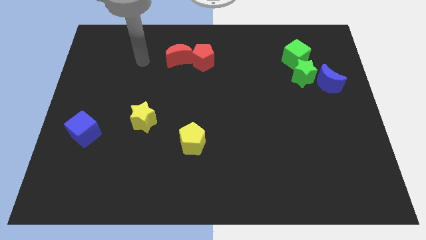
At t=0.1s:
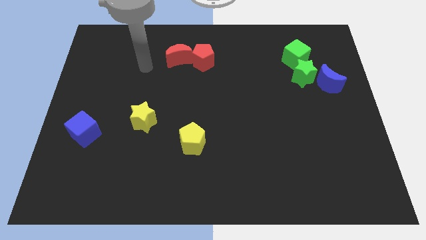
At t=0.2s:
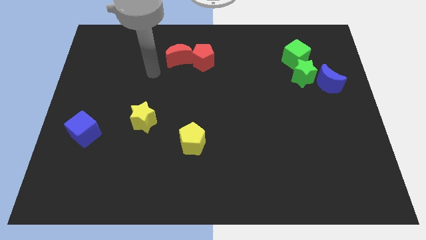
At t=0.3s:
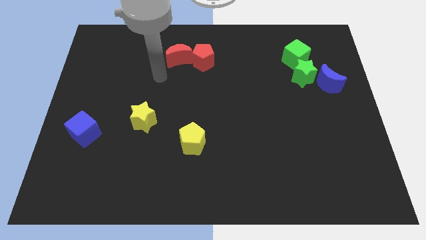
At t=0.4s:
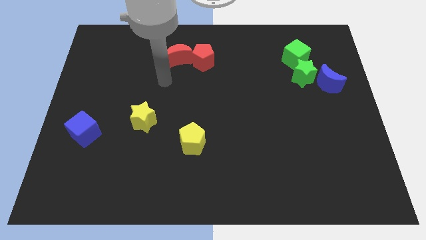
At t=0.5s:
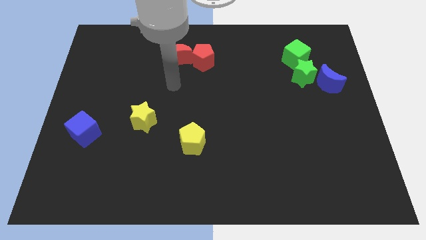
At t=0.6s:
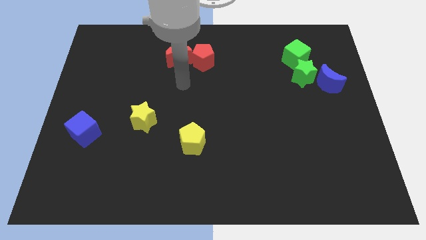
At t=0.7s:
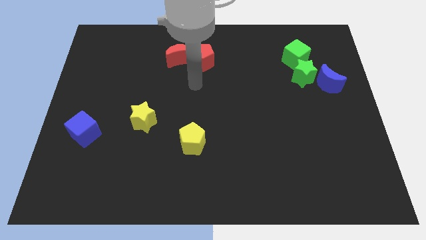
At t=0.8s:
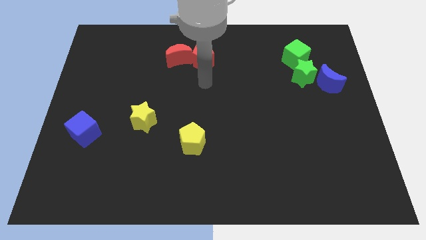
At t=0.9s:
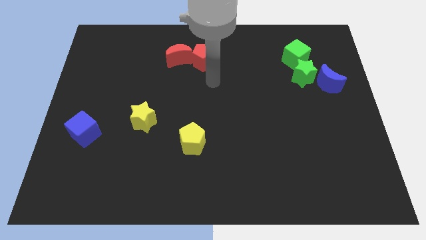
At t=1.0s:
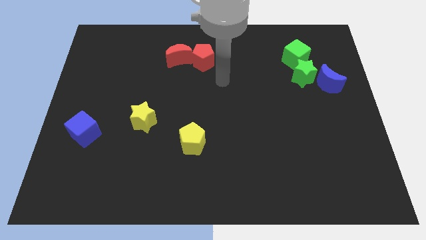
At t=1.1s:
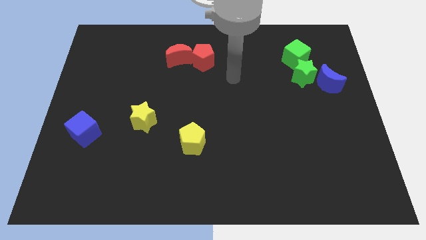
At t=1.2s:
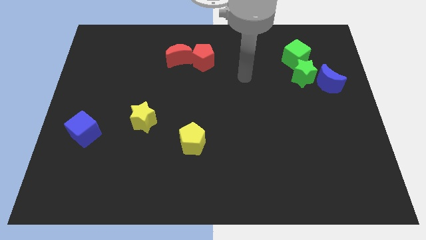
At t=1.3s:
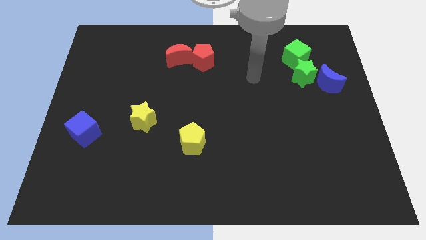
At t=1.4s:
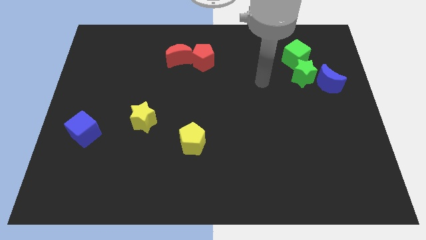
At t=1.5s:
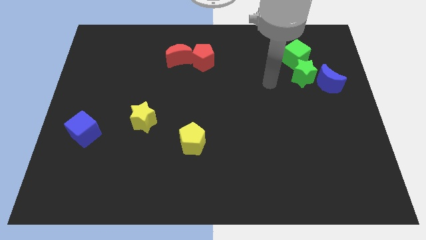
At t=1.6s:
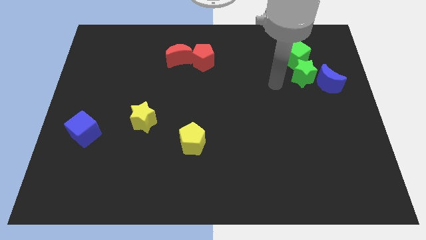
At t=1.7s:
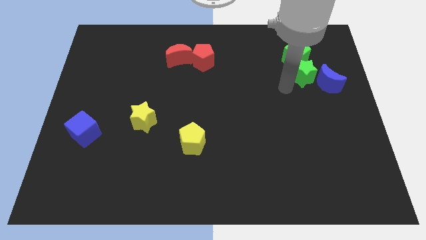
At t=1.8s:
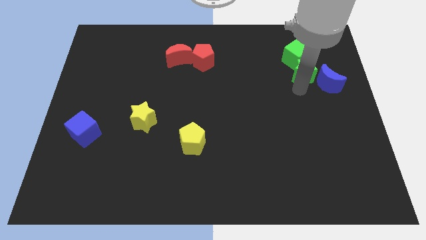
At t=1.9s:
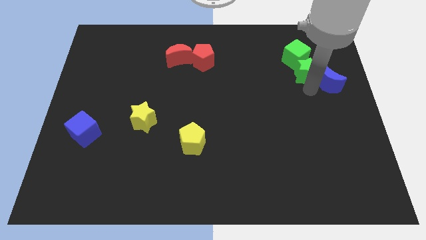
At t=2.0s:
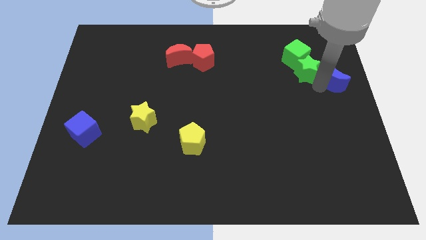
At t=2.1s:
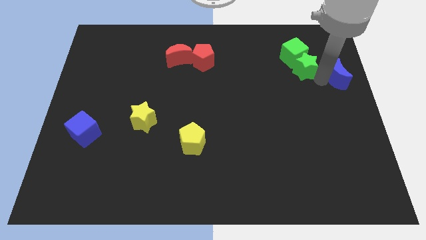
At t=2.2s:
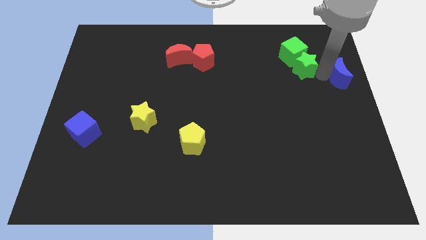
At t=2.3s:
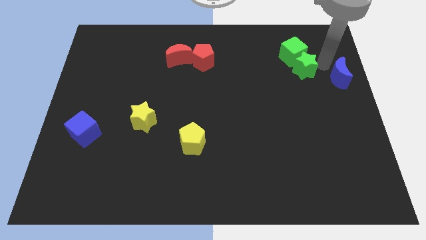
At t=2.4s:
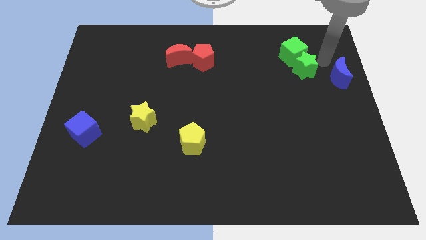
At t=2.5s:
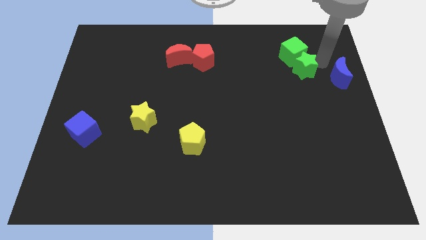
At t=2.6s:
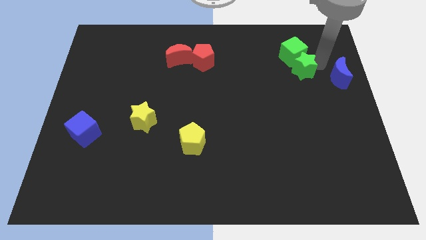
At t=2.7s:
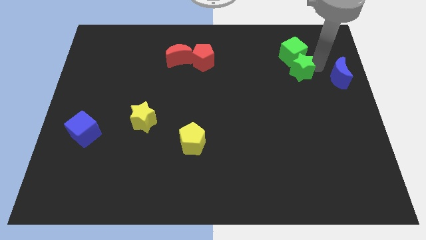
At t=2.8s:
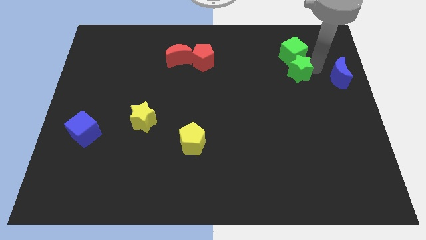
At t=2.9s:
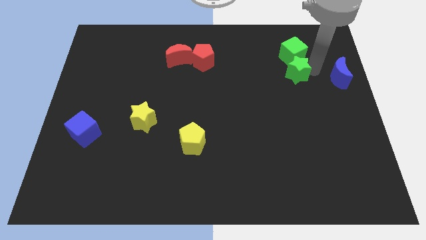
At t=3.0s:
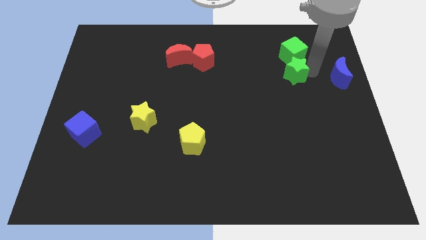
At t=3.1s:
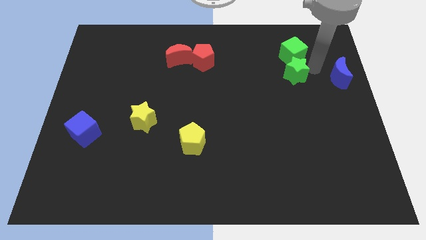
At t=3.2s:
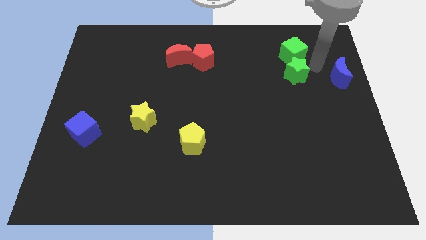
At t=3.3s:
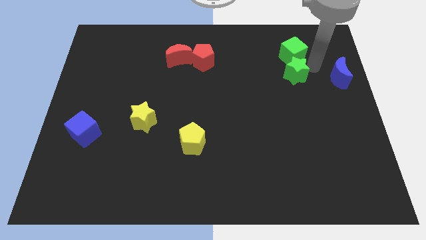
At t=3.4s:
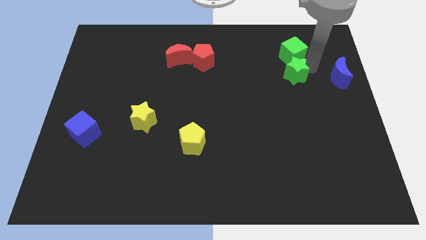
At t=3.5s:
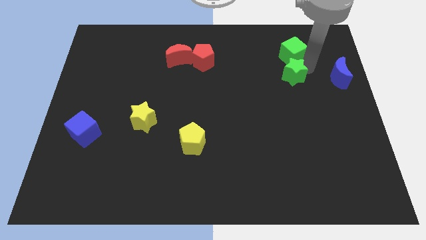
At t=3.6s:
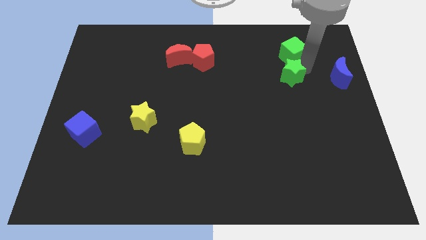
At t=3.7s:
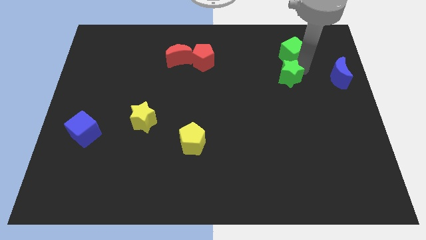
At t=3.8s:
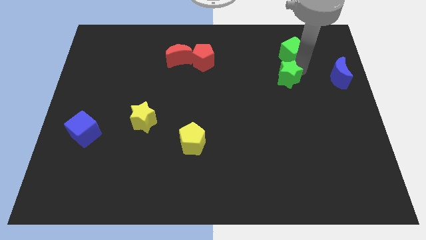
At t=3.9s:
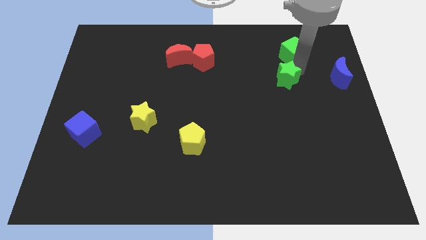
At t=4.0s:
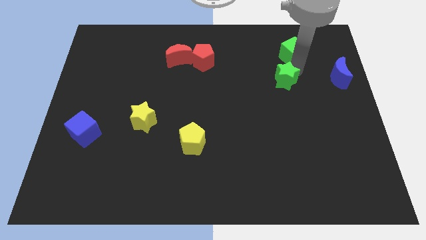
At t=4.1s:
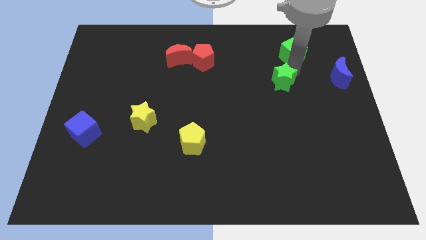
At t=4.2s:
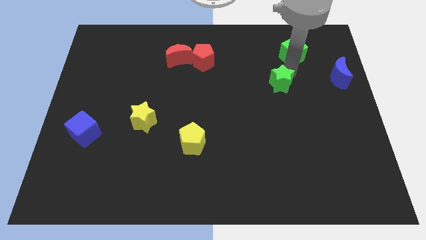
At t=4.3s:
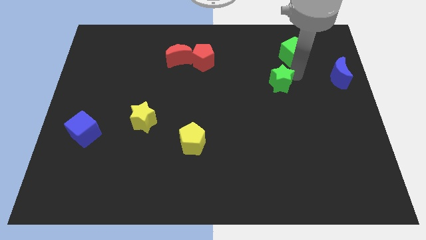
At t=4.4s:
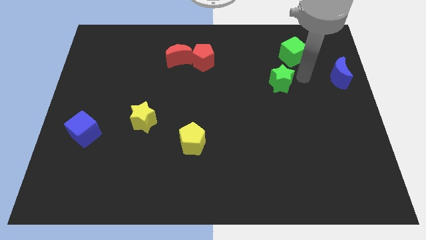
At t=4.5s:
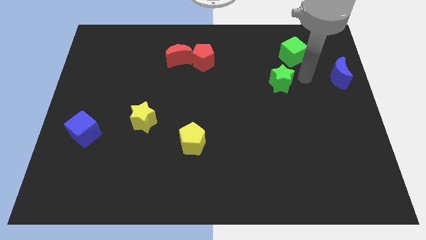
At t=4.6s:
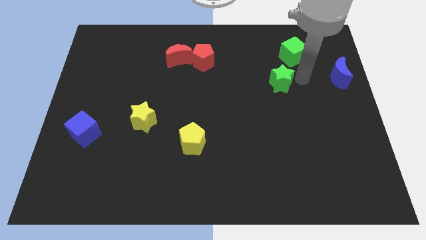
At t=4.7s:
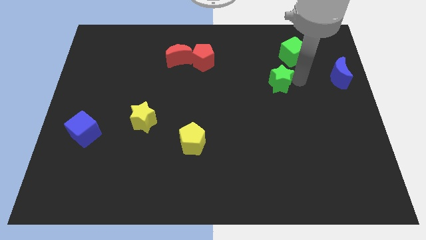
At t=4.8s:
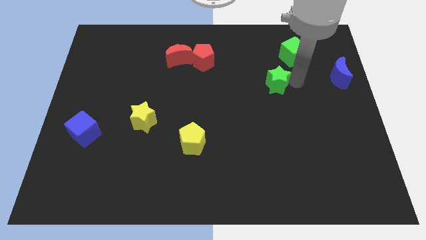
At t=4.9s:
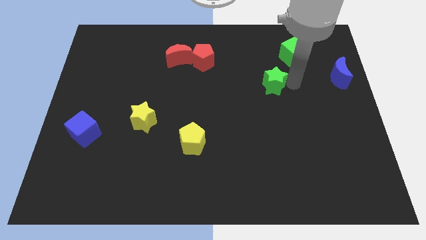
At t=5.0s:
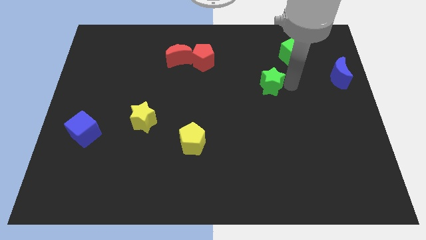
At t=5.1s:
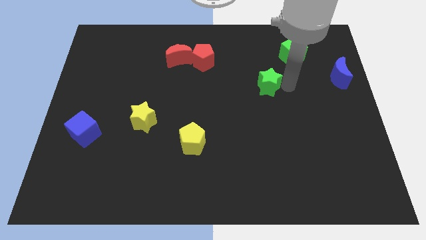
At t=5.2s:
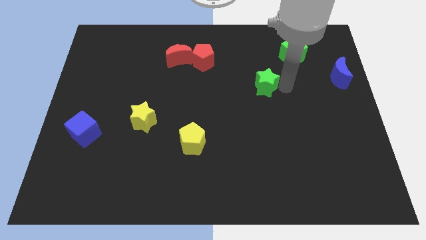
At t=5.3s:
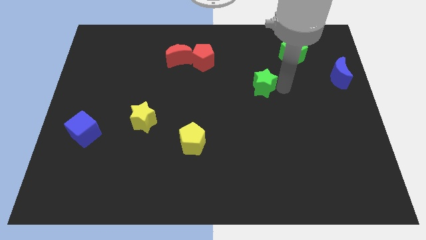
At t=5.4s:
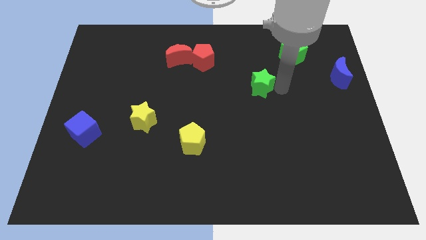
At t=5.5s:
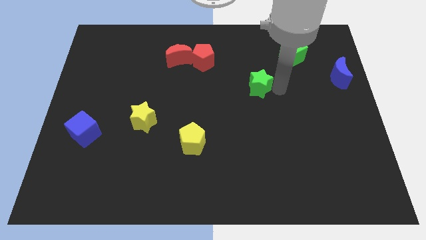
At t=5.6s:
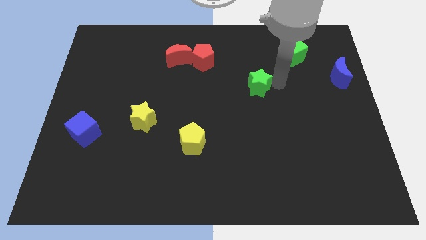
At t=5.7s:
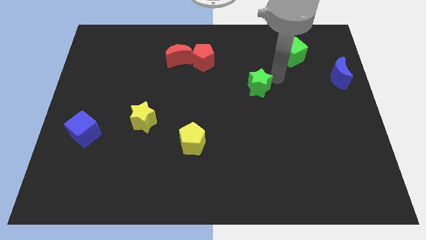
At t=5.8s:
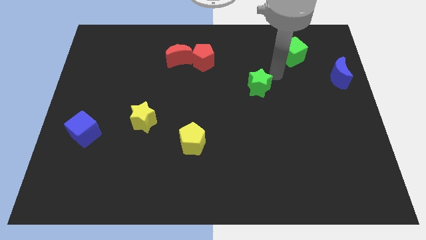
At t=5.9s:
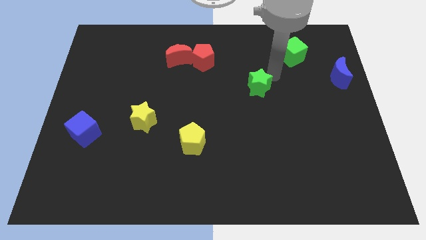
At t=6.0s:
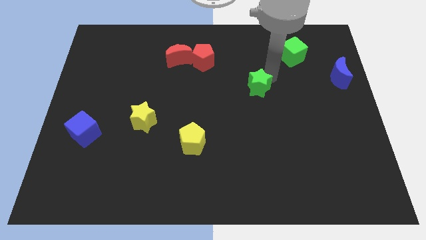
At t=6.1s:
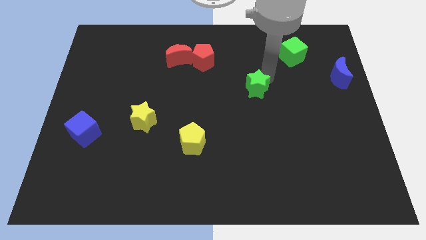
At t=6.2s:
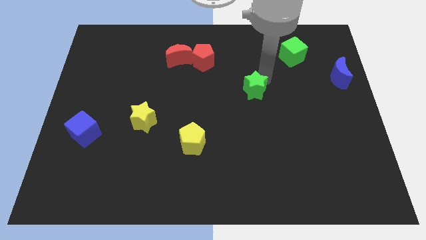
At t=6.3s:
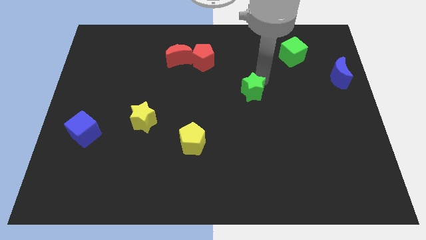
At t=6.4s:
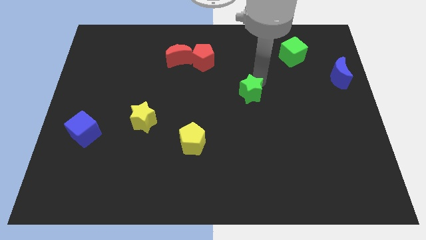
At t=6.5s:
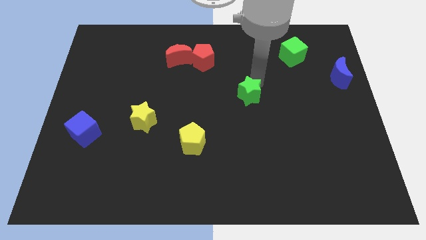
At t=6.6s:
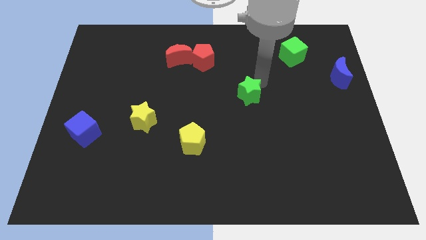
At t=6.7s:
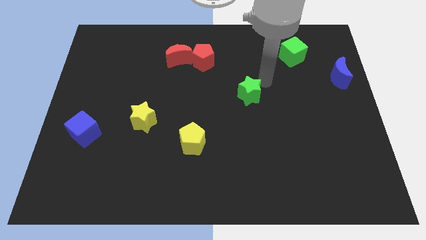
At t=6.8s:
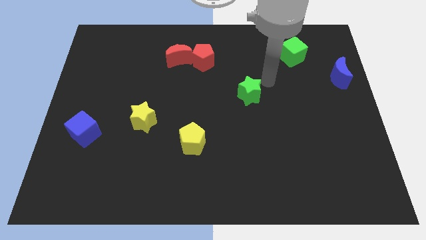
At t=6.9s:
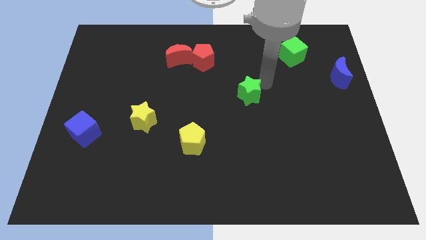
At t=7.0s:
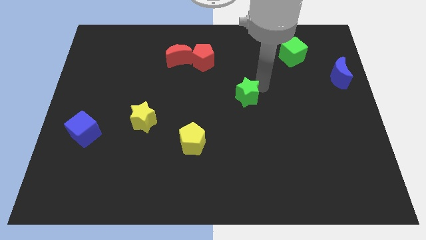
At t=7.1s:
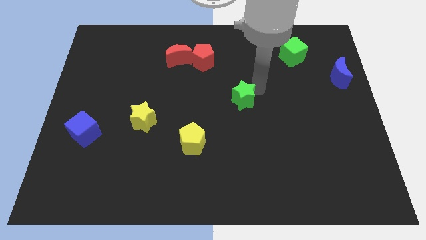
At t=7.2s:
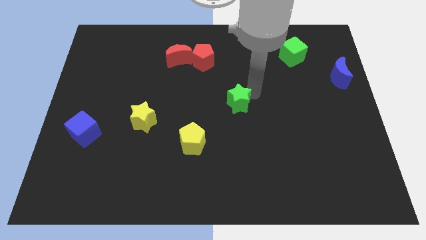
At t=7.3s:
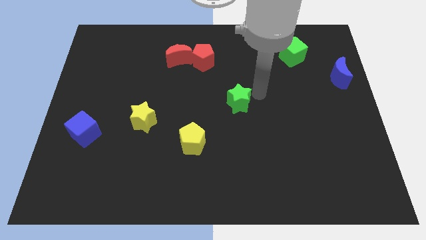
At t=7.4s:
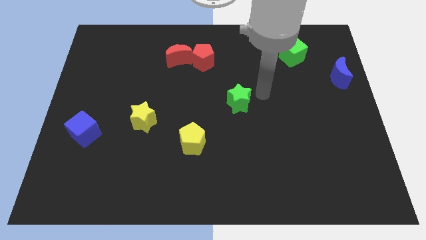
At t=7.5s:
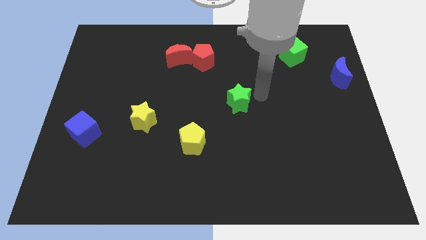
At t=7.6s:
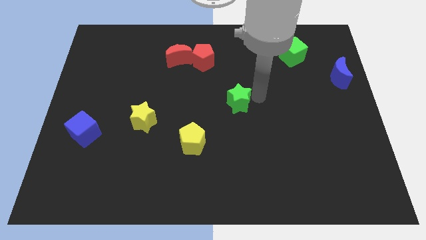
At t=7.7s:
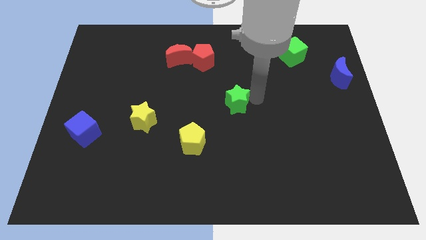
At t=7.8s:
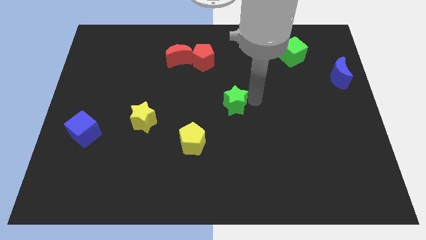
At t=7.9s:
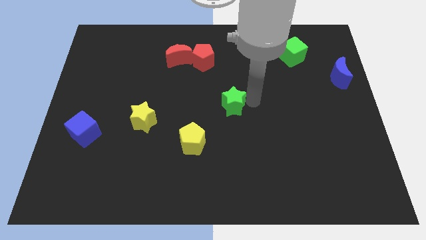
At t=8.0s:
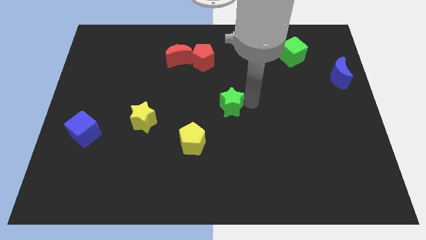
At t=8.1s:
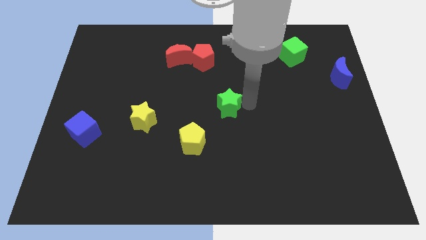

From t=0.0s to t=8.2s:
push the green star to the top right of the yellow pentagon
